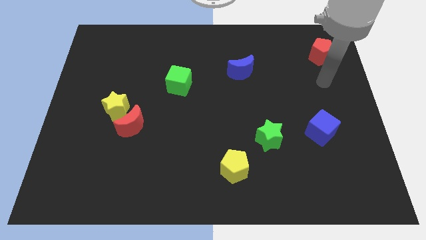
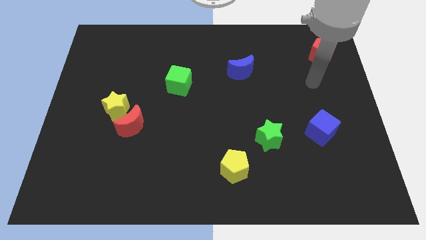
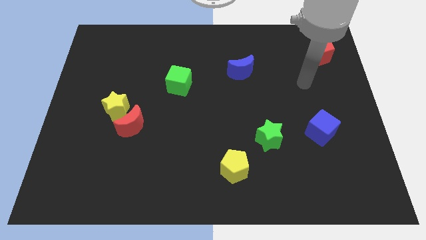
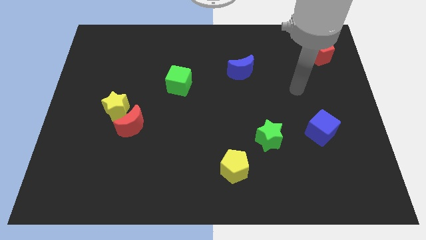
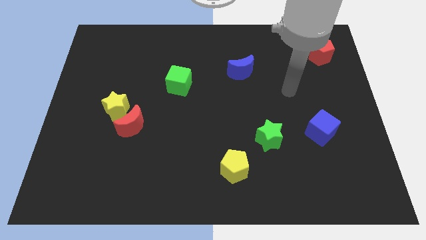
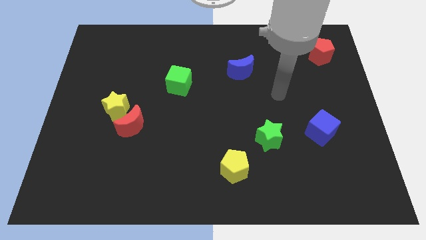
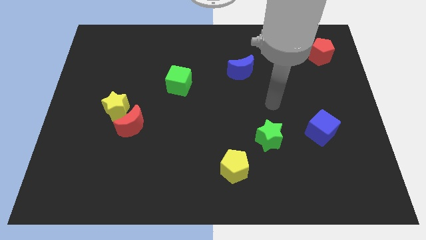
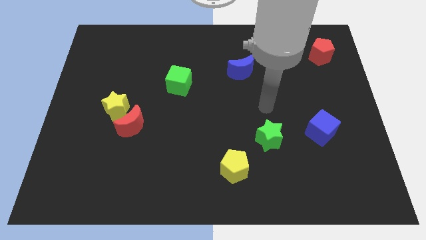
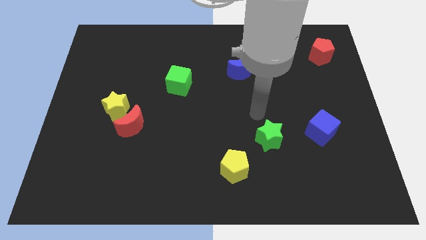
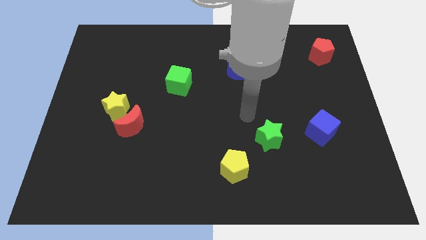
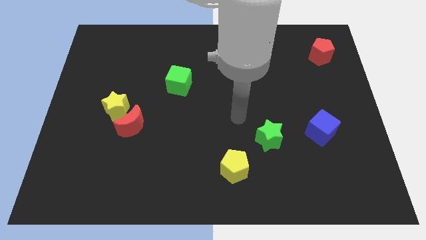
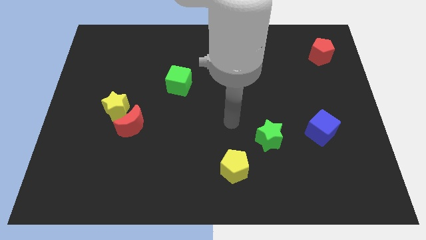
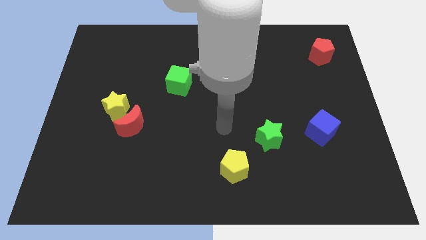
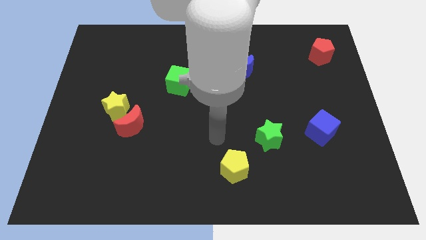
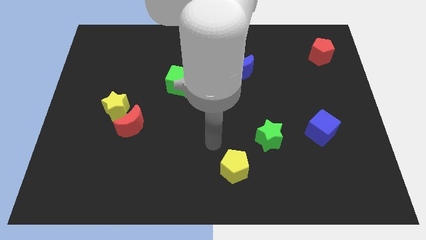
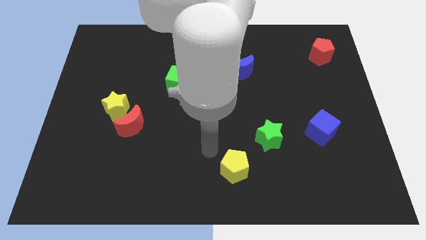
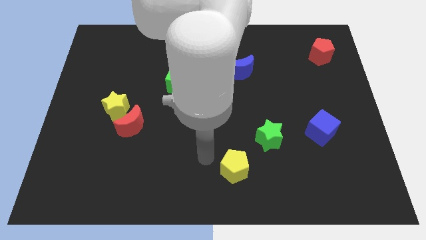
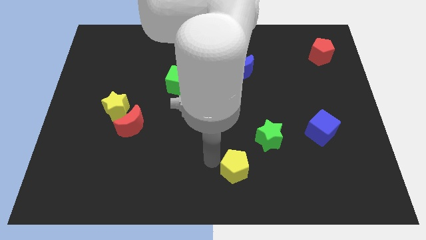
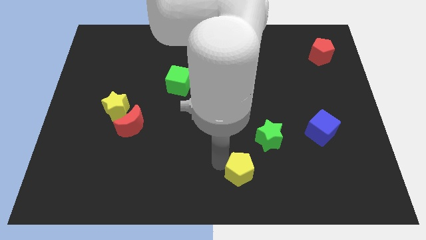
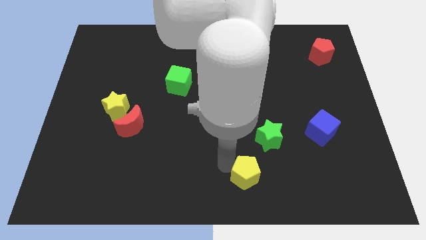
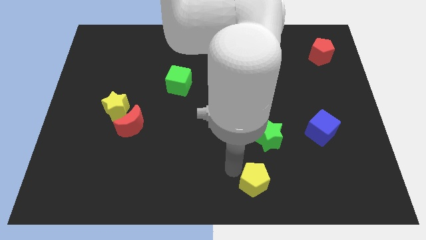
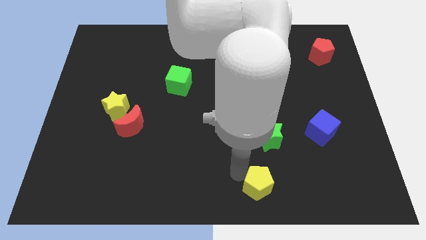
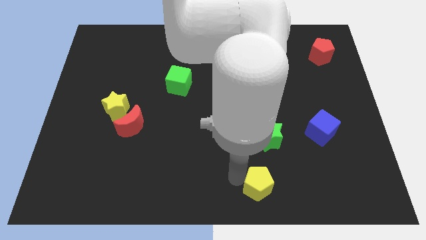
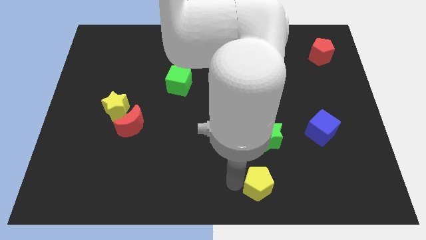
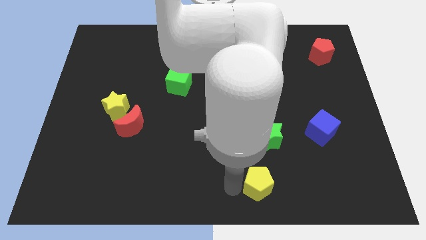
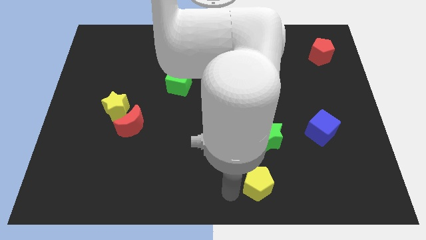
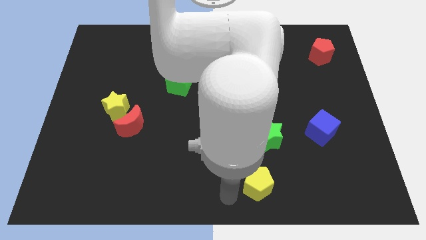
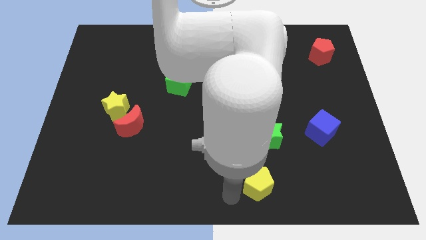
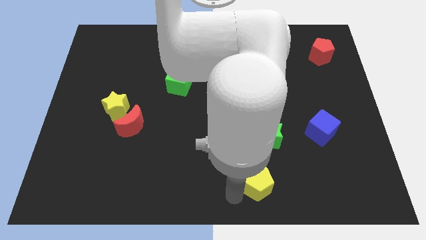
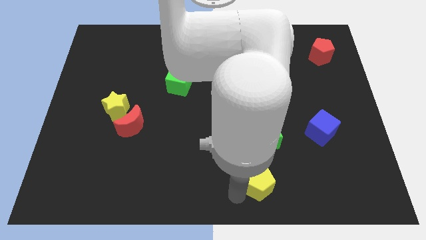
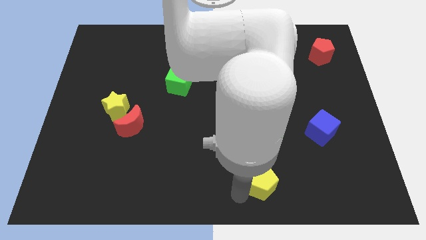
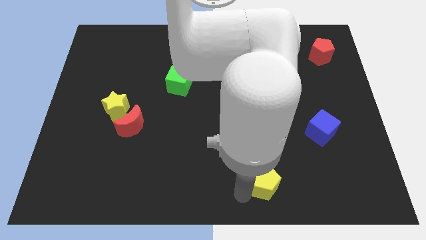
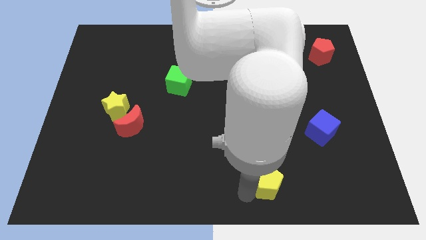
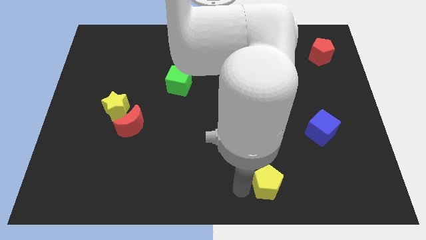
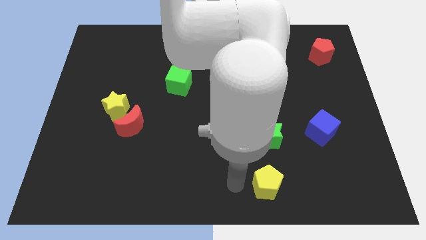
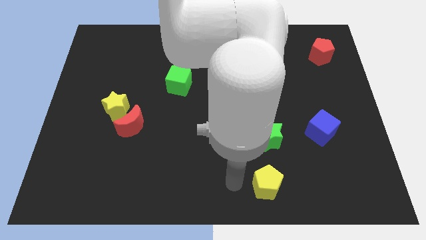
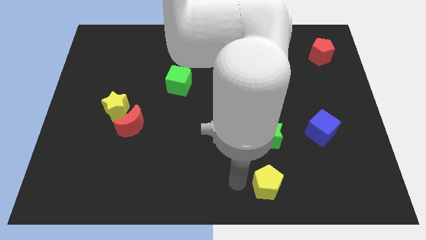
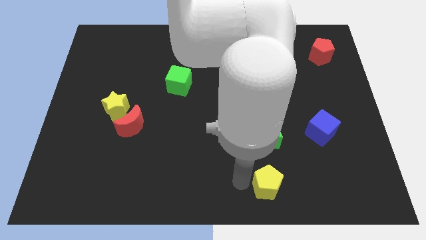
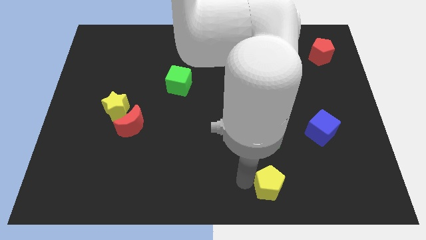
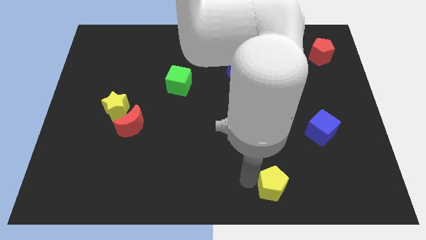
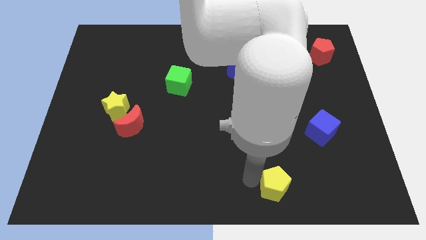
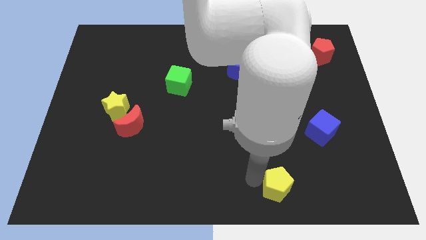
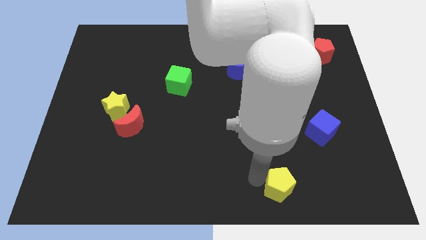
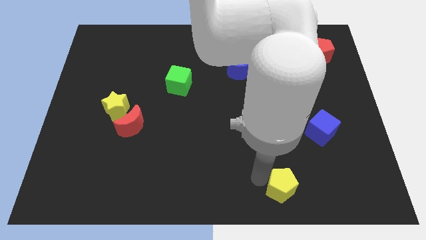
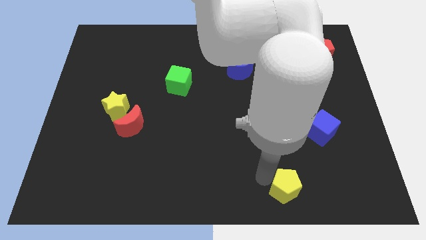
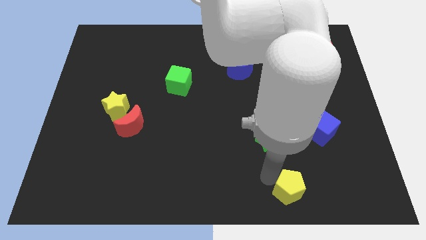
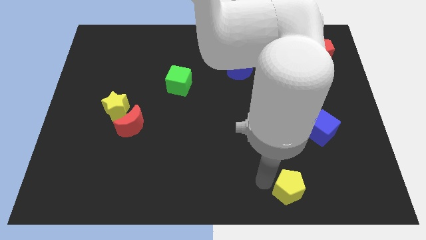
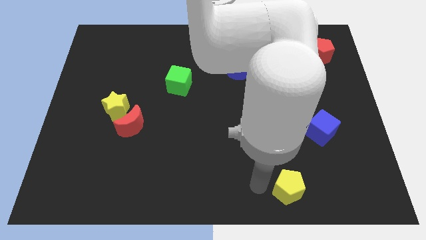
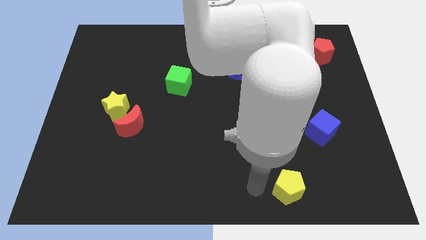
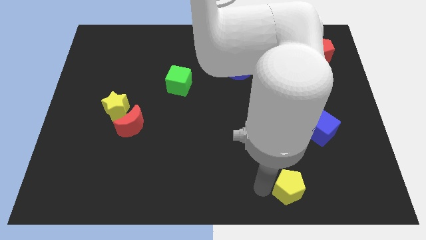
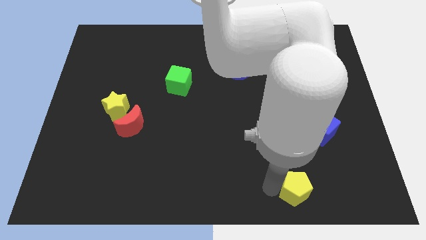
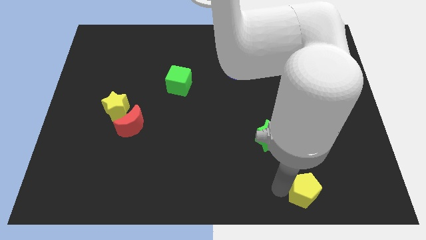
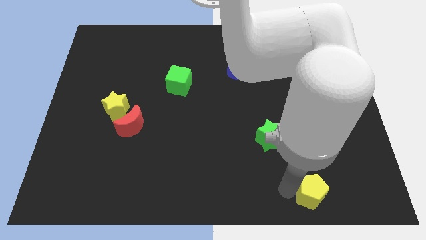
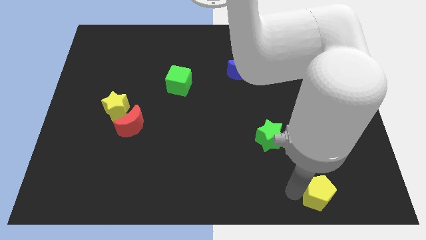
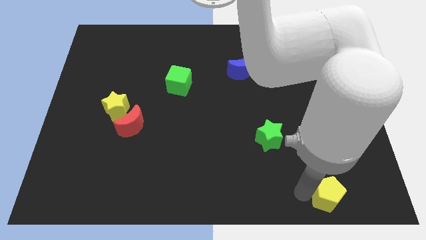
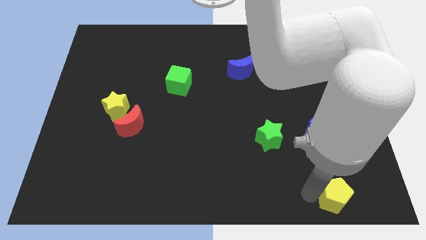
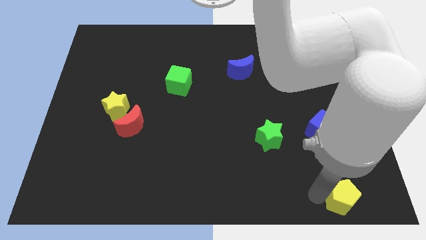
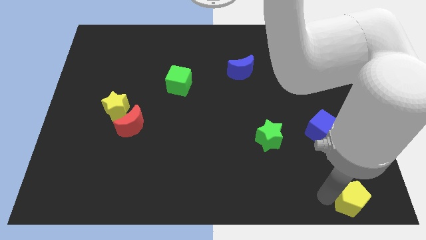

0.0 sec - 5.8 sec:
slide the yellow pentagon to the bottom right
